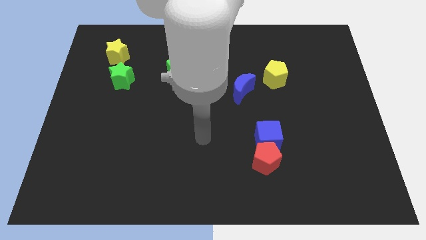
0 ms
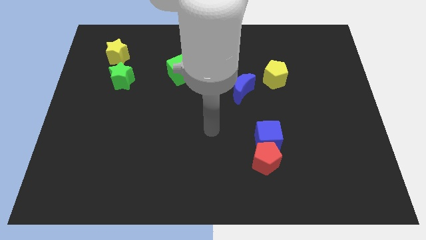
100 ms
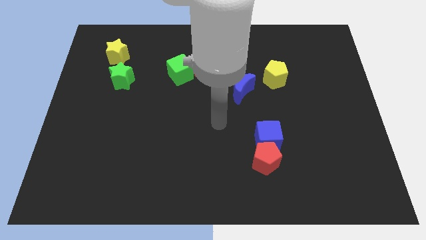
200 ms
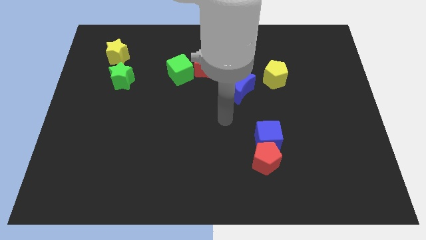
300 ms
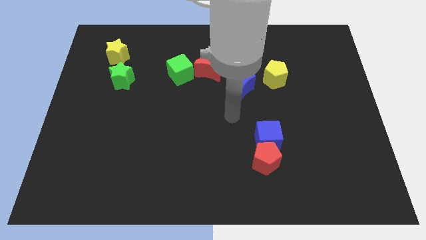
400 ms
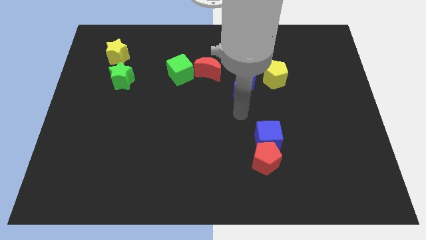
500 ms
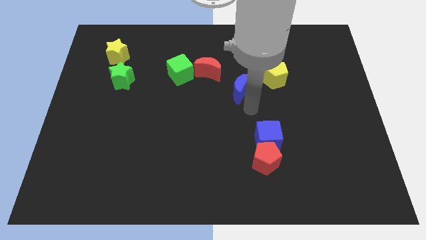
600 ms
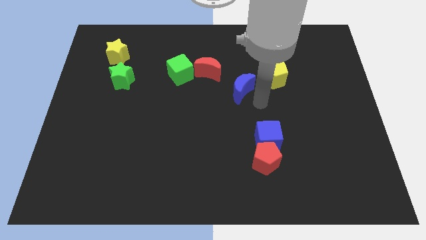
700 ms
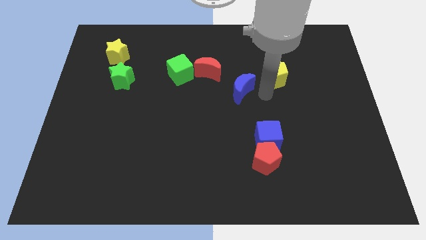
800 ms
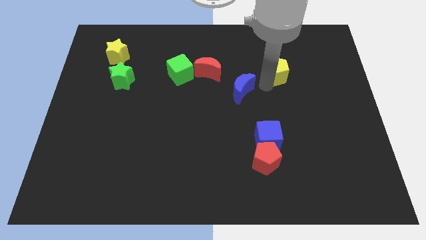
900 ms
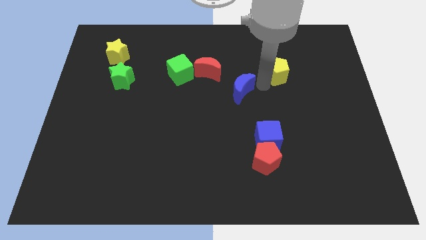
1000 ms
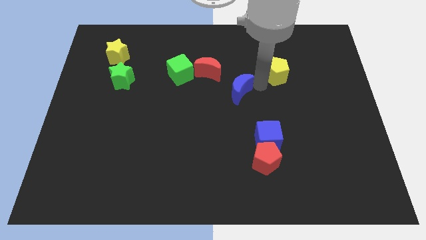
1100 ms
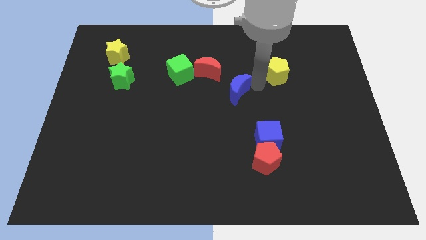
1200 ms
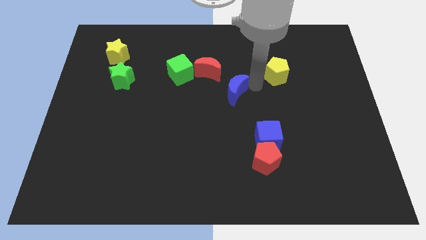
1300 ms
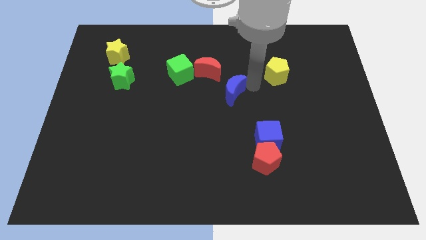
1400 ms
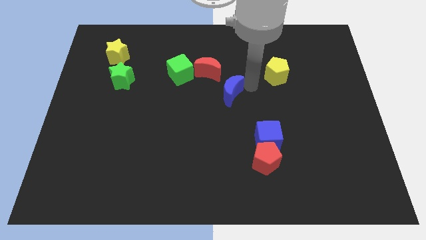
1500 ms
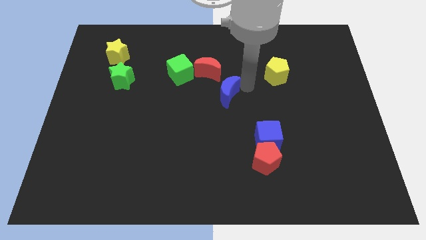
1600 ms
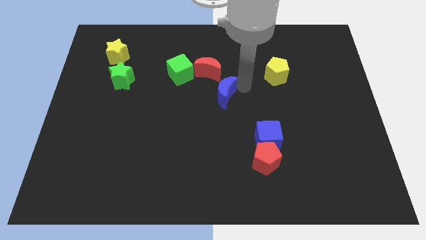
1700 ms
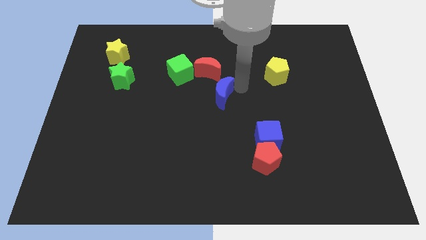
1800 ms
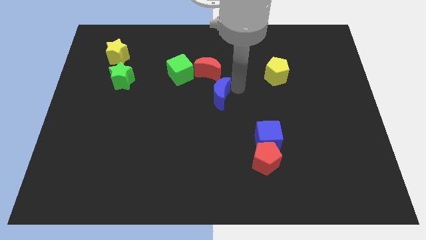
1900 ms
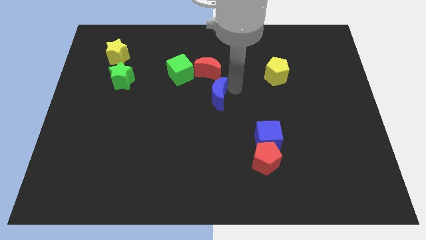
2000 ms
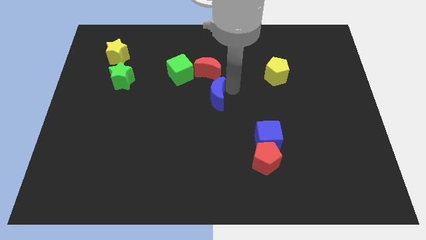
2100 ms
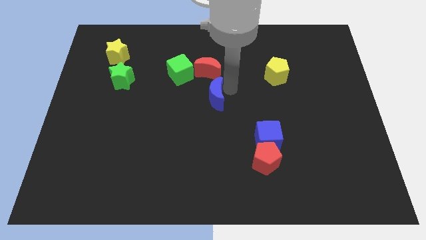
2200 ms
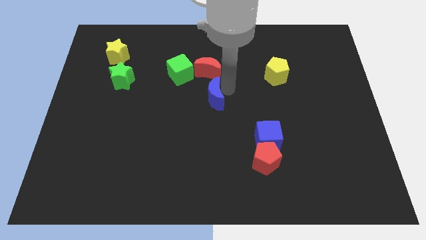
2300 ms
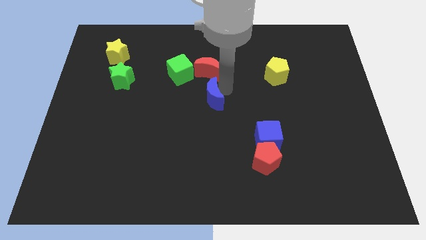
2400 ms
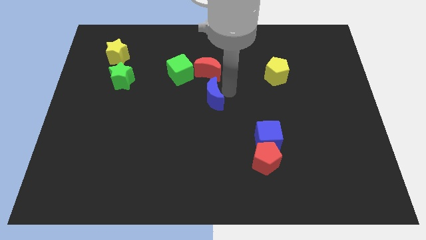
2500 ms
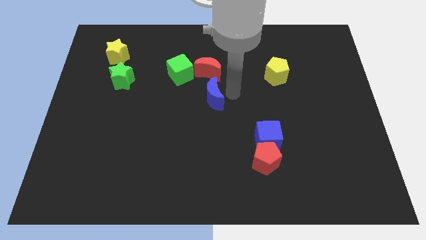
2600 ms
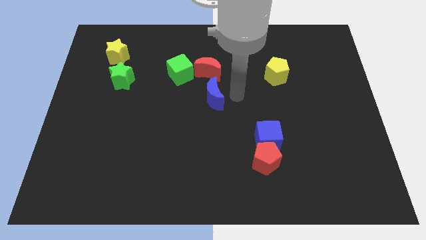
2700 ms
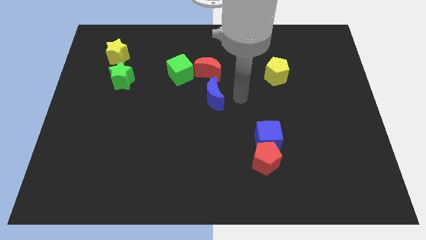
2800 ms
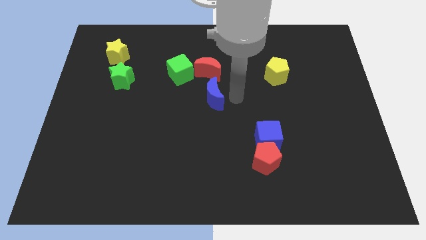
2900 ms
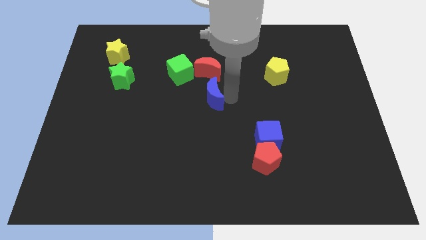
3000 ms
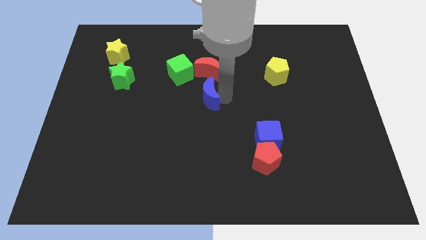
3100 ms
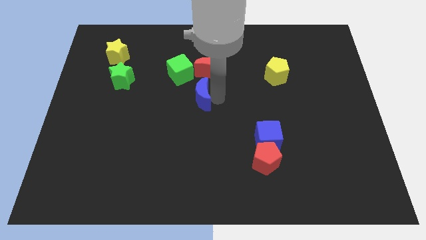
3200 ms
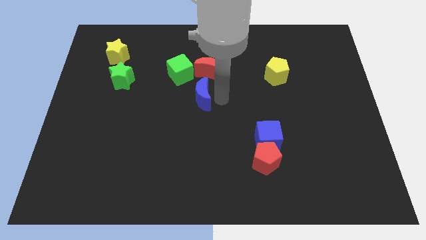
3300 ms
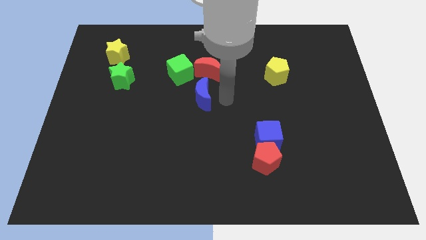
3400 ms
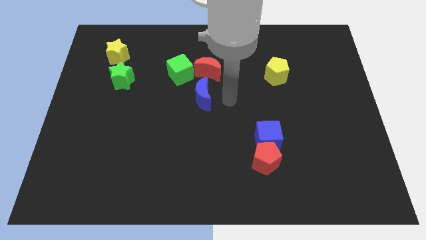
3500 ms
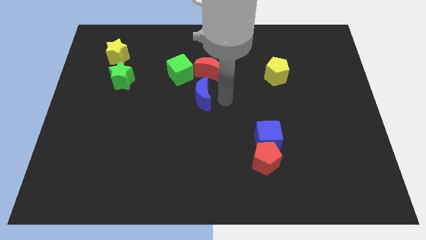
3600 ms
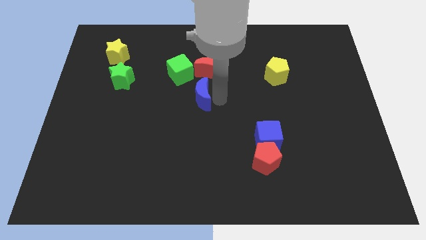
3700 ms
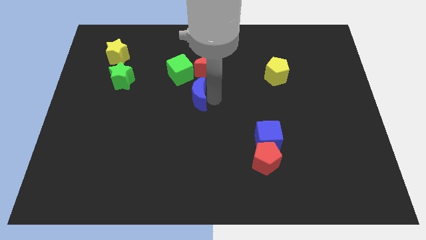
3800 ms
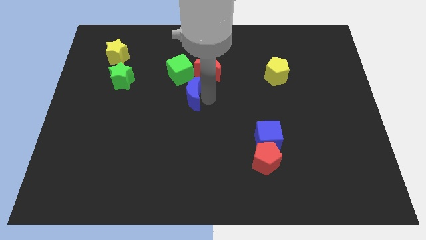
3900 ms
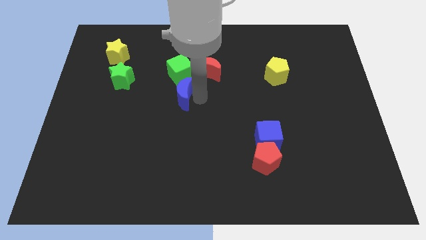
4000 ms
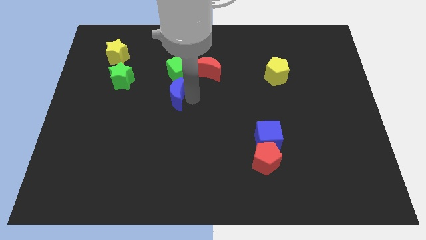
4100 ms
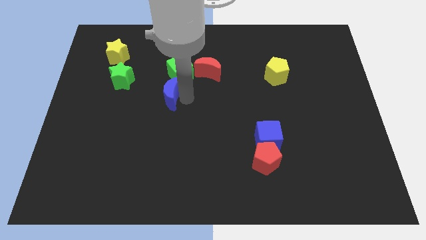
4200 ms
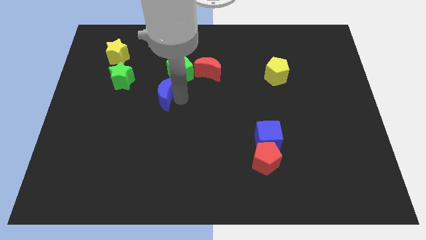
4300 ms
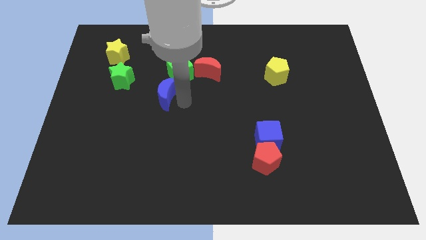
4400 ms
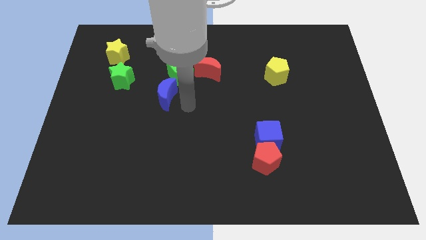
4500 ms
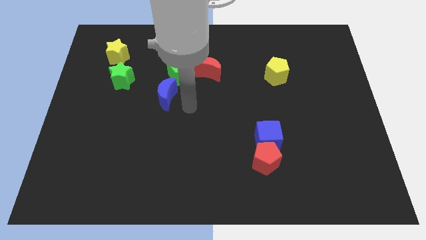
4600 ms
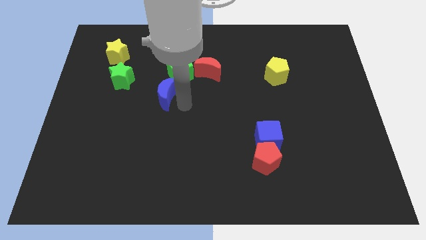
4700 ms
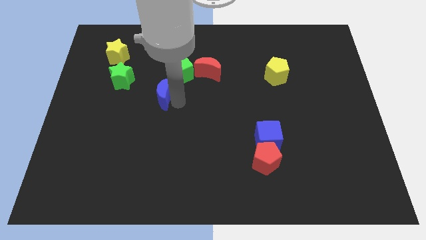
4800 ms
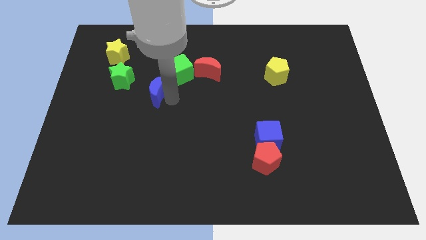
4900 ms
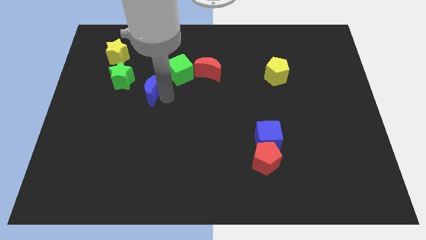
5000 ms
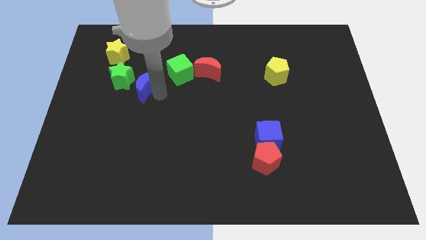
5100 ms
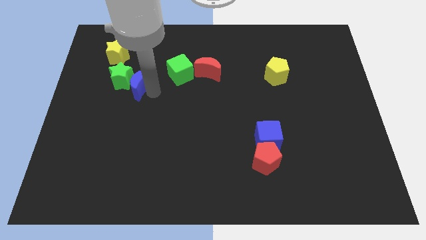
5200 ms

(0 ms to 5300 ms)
move the blue moon close to the green star

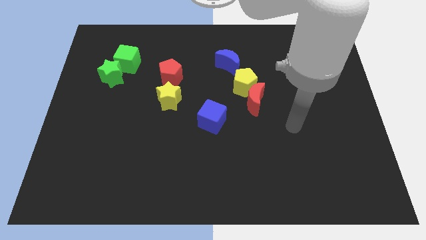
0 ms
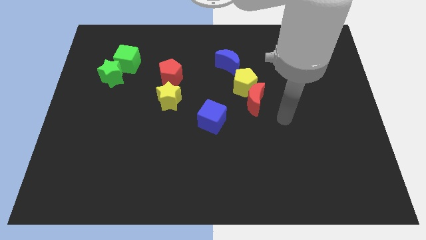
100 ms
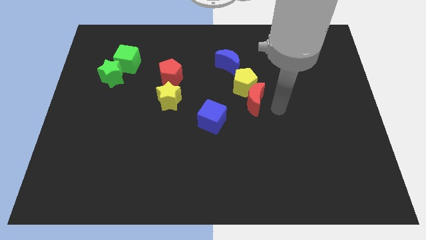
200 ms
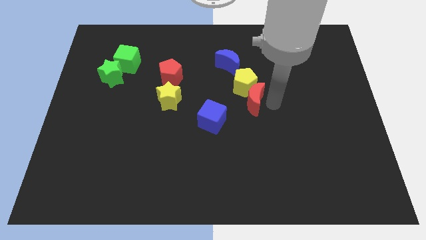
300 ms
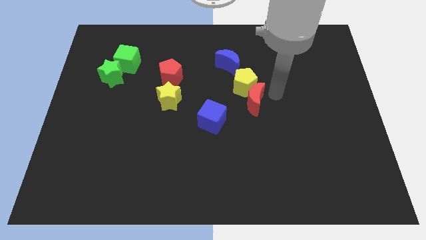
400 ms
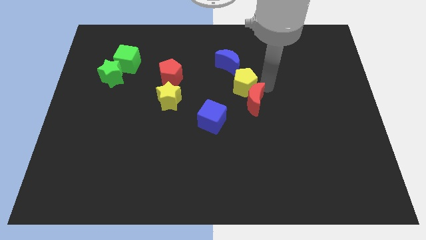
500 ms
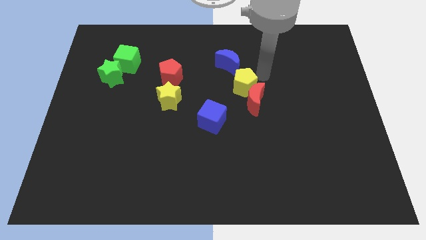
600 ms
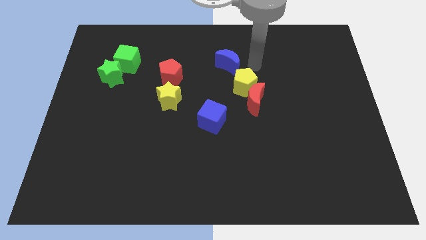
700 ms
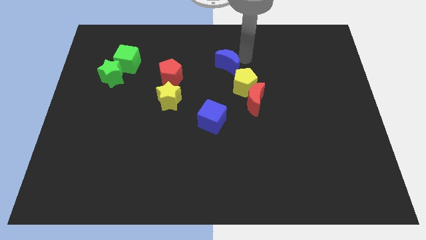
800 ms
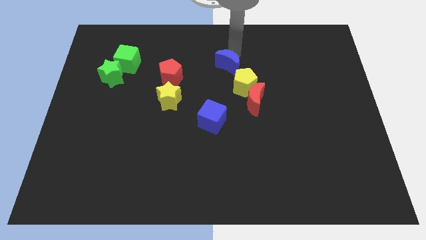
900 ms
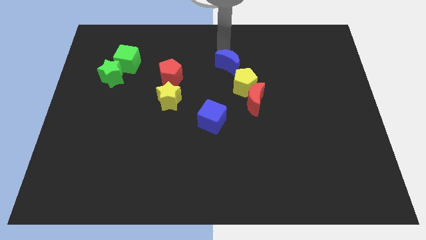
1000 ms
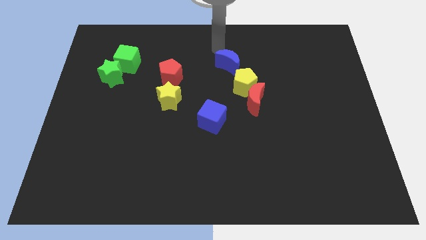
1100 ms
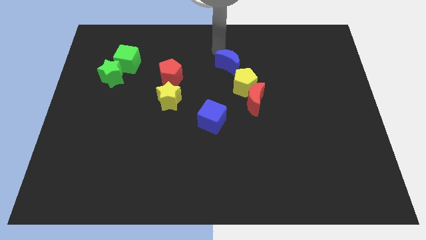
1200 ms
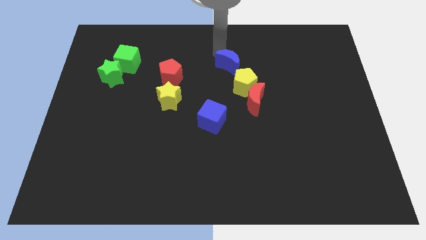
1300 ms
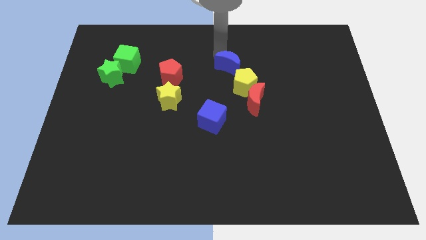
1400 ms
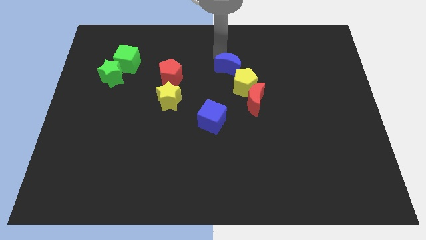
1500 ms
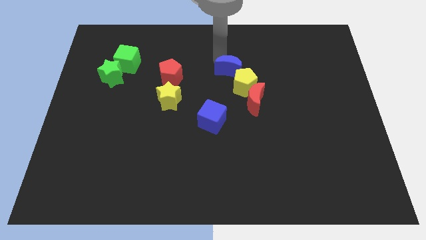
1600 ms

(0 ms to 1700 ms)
move the blue moon next to the yellow pentagon

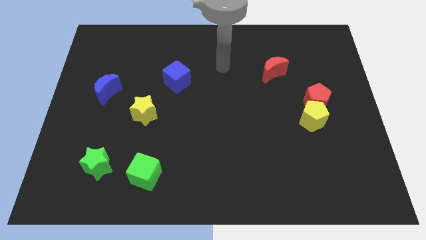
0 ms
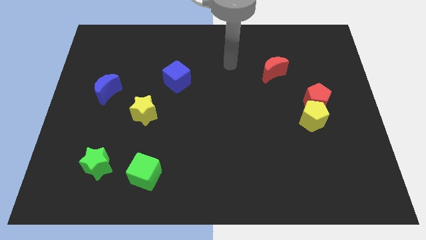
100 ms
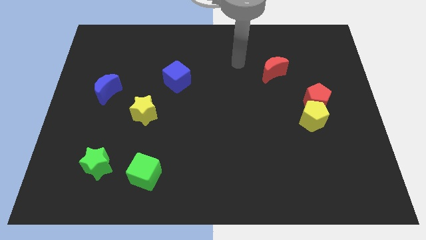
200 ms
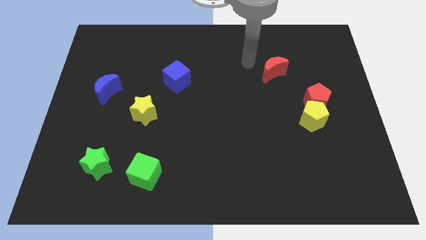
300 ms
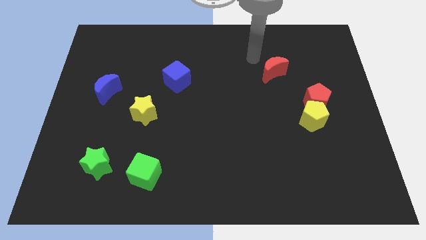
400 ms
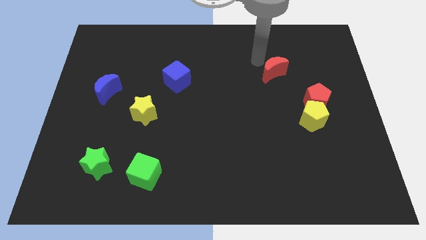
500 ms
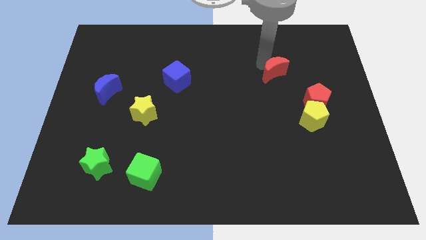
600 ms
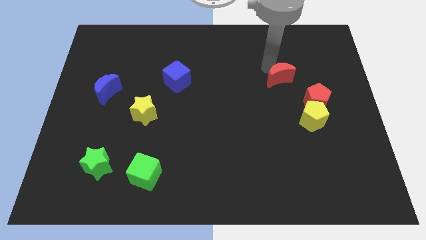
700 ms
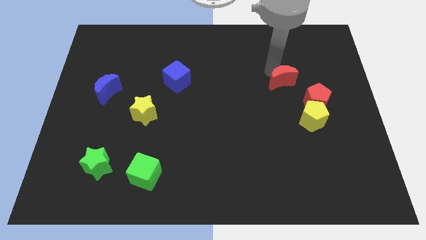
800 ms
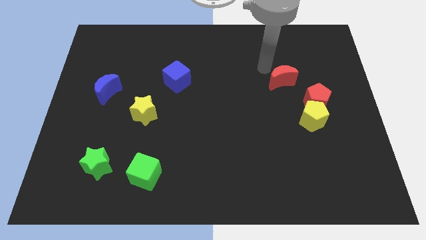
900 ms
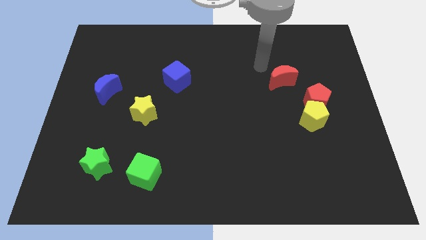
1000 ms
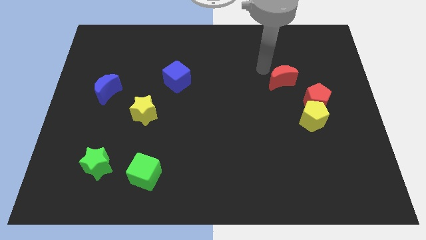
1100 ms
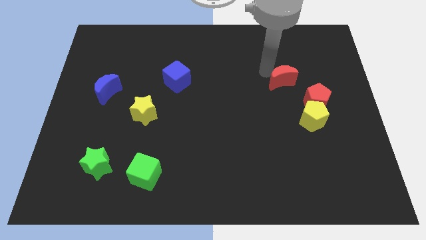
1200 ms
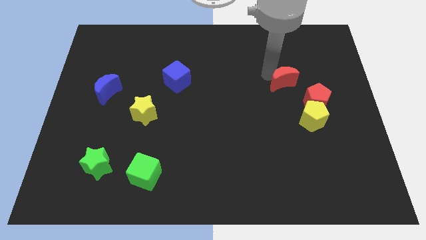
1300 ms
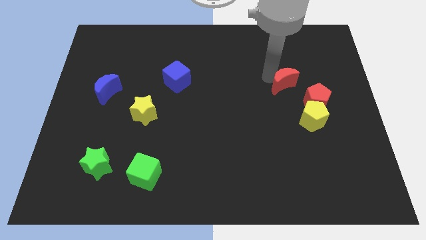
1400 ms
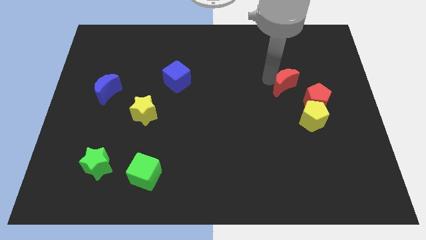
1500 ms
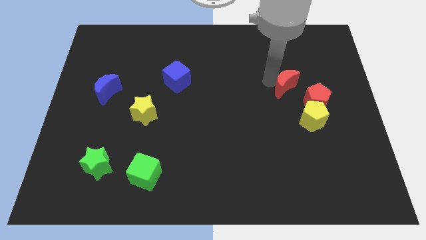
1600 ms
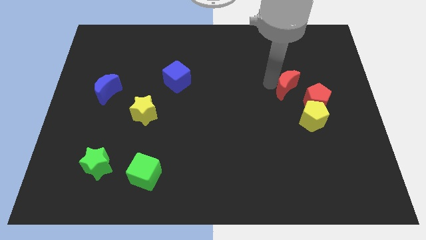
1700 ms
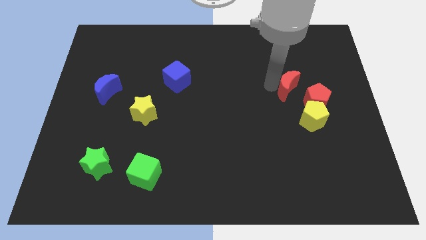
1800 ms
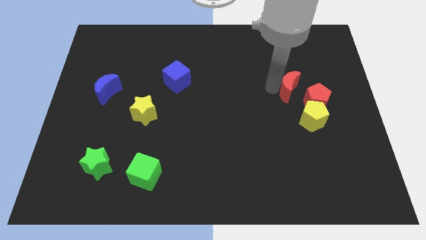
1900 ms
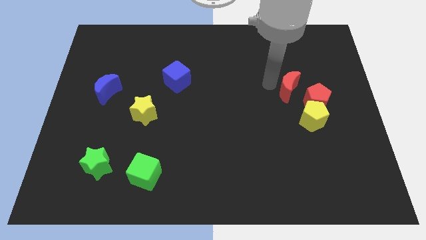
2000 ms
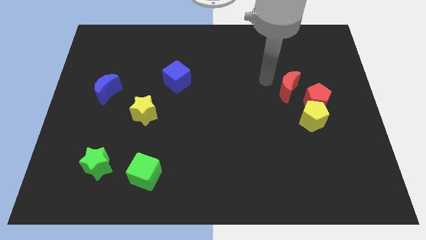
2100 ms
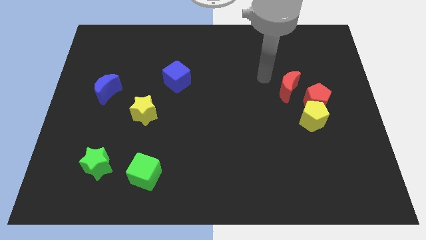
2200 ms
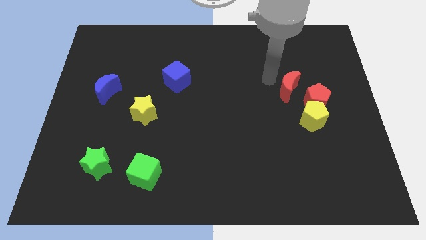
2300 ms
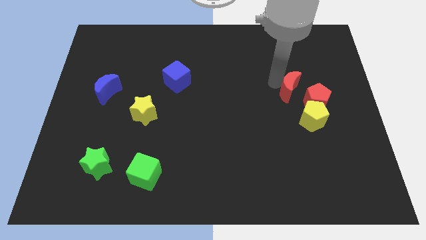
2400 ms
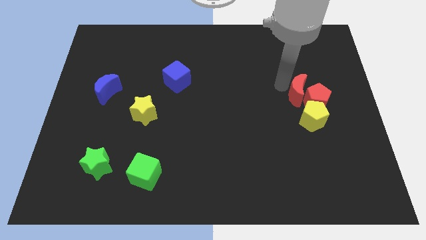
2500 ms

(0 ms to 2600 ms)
put the red moon next to the red pentagon
